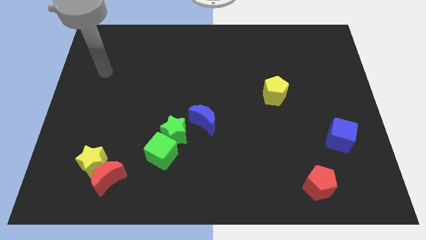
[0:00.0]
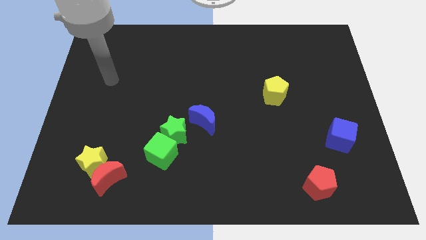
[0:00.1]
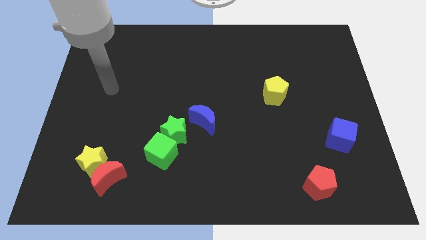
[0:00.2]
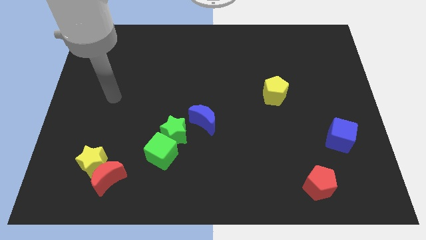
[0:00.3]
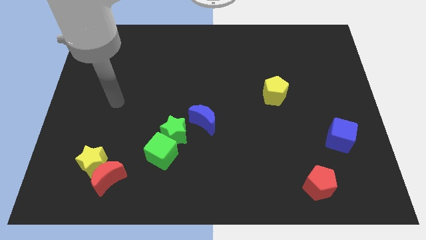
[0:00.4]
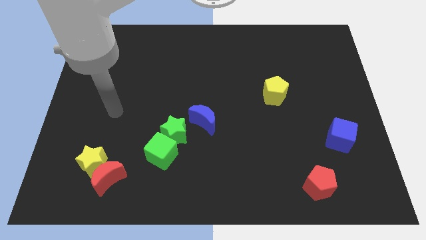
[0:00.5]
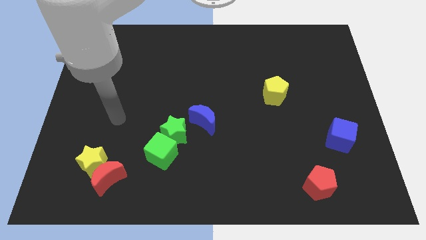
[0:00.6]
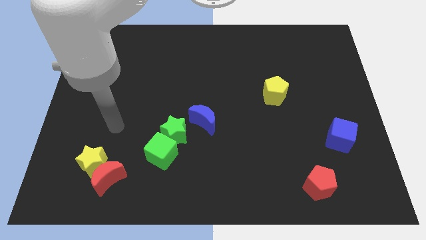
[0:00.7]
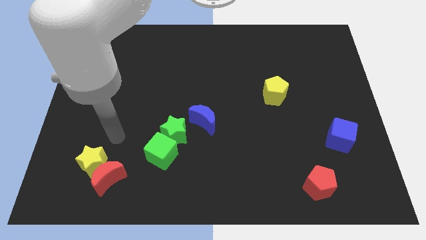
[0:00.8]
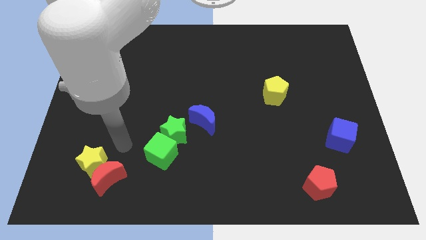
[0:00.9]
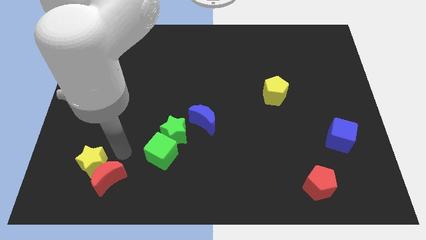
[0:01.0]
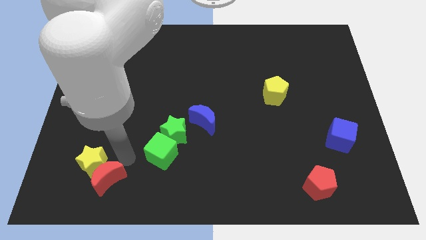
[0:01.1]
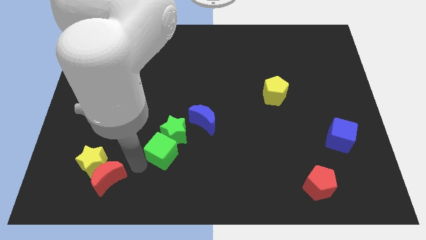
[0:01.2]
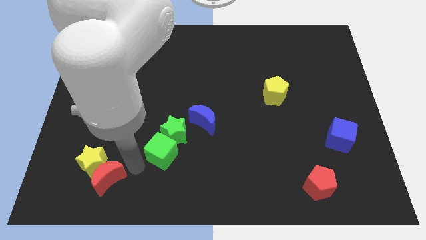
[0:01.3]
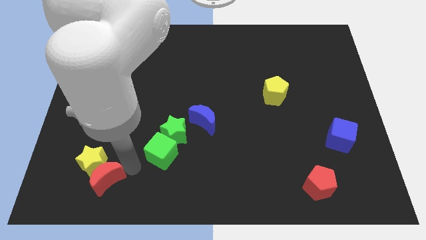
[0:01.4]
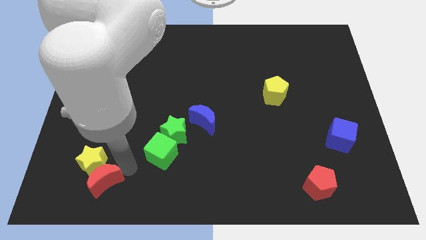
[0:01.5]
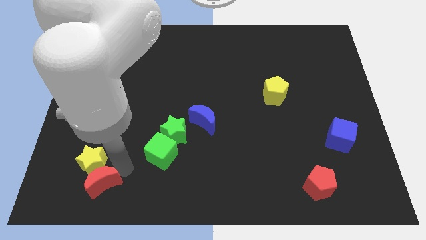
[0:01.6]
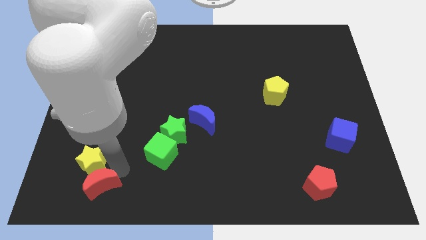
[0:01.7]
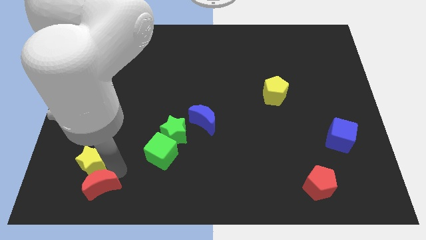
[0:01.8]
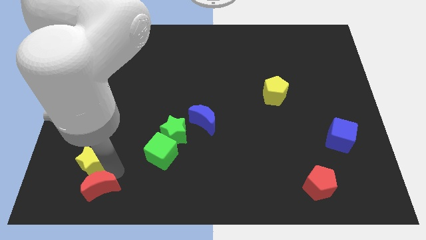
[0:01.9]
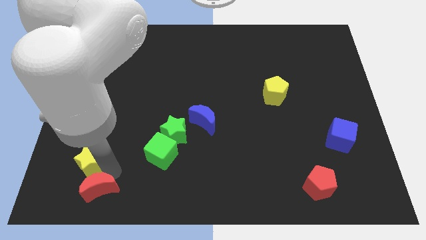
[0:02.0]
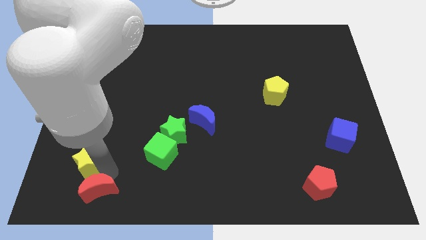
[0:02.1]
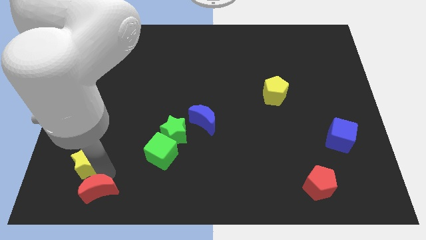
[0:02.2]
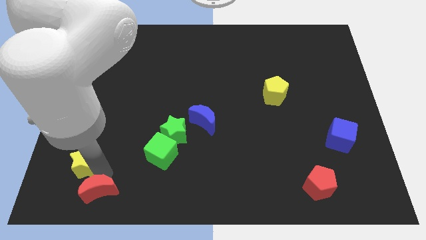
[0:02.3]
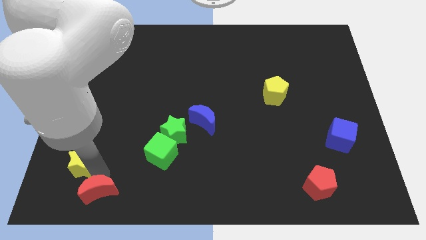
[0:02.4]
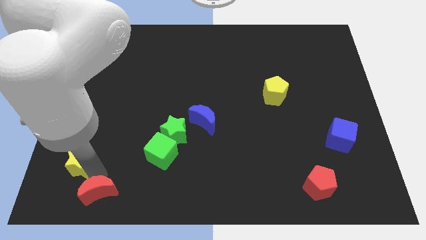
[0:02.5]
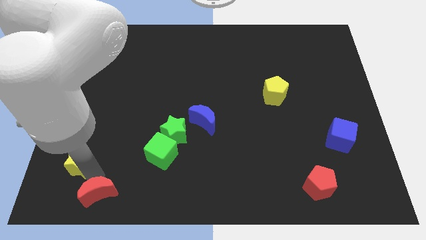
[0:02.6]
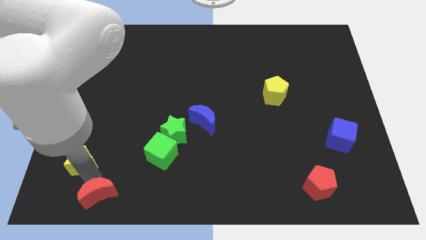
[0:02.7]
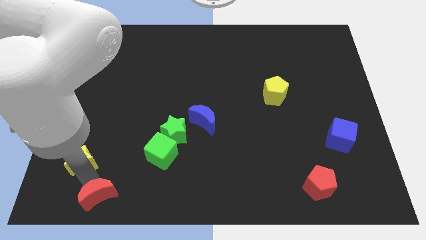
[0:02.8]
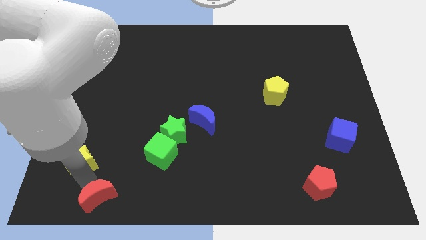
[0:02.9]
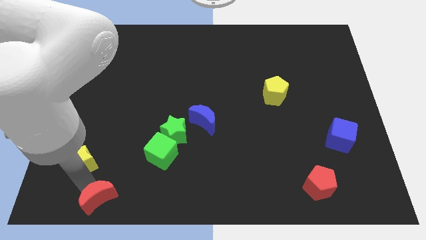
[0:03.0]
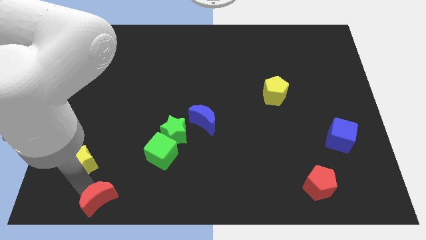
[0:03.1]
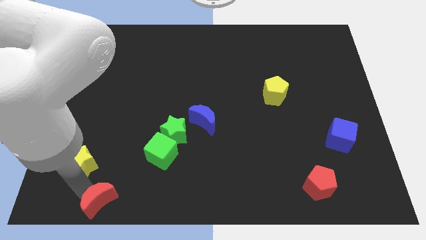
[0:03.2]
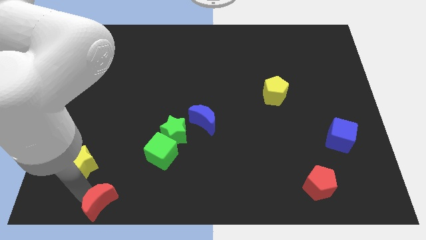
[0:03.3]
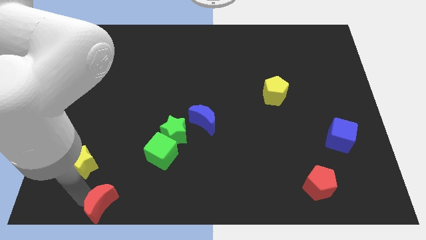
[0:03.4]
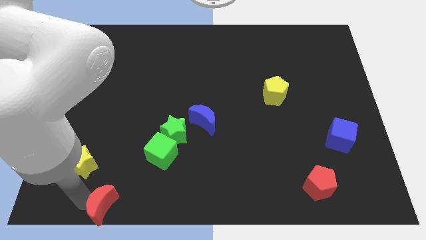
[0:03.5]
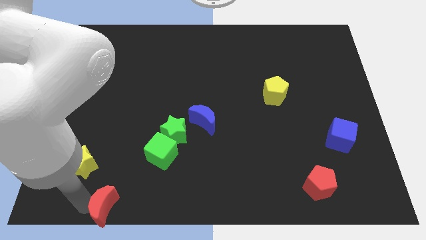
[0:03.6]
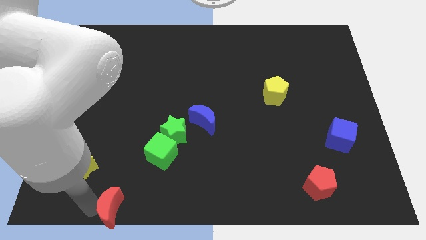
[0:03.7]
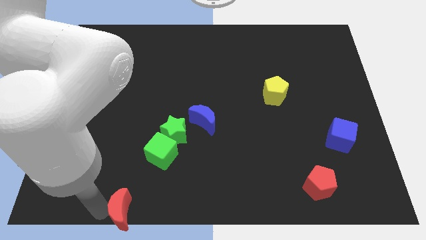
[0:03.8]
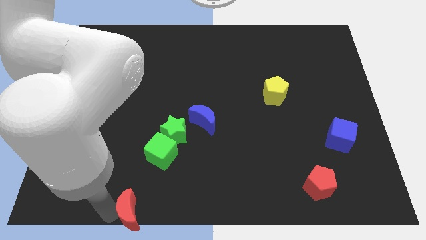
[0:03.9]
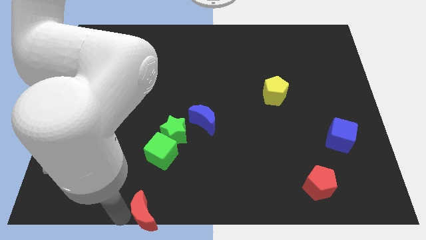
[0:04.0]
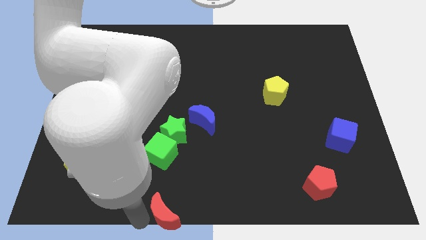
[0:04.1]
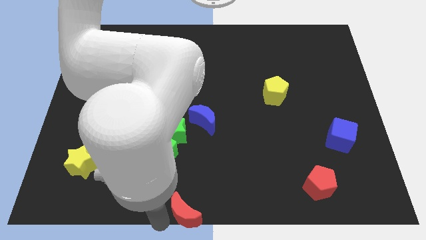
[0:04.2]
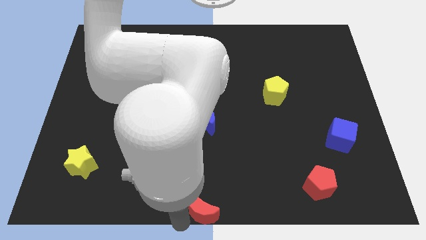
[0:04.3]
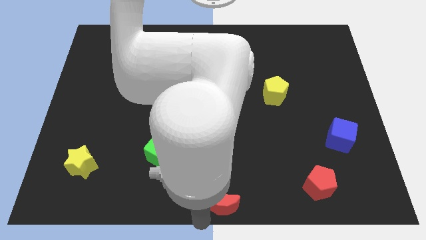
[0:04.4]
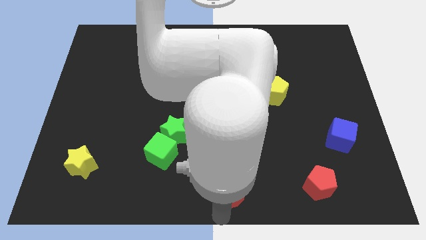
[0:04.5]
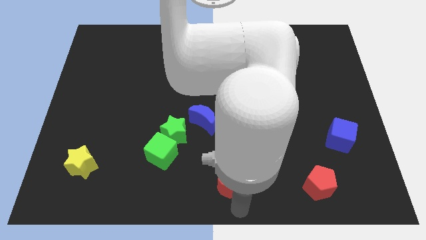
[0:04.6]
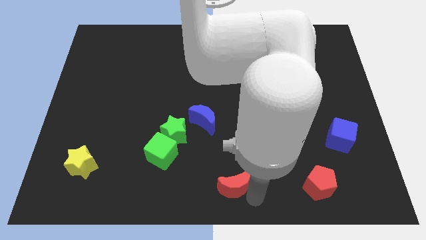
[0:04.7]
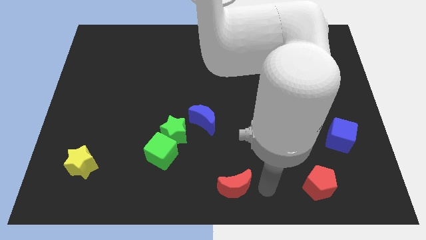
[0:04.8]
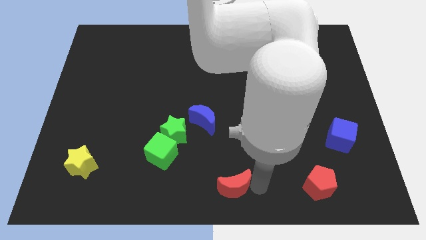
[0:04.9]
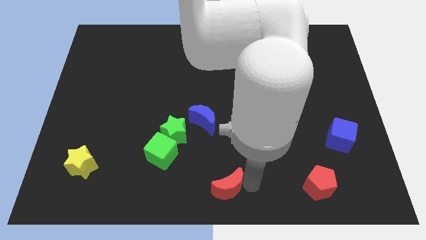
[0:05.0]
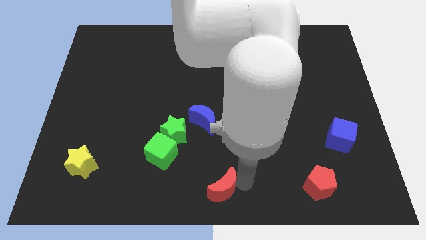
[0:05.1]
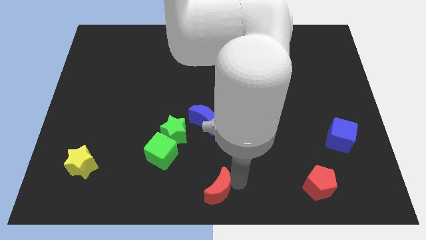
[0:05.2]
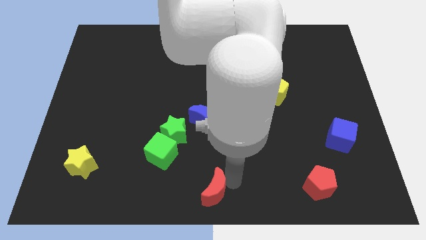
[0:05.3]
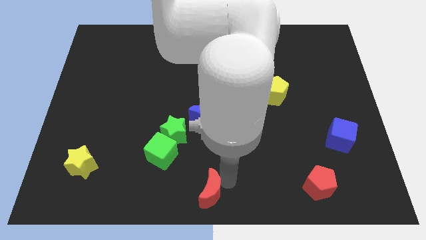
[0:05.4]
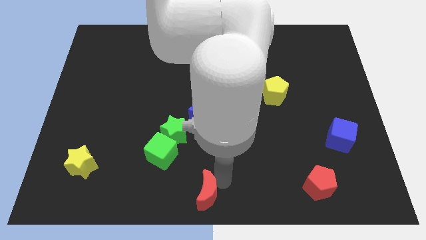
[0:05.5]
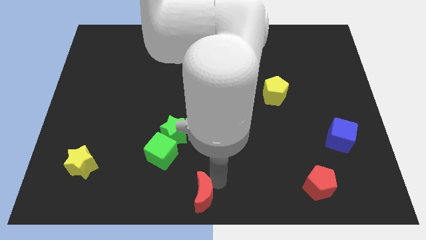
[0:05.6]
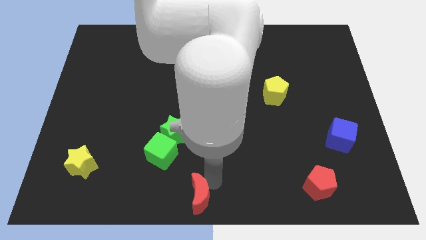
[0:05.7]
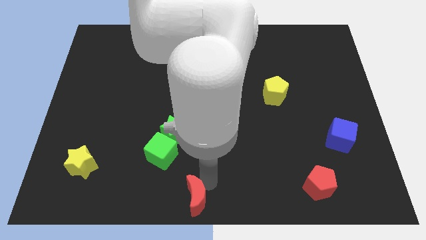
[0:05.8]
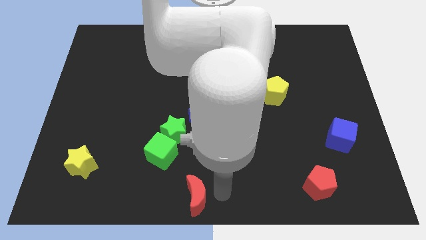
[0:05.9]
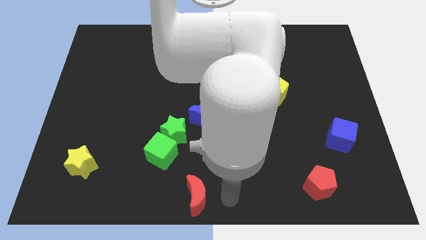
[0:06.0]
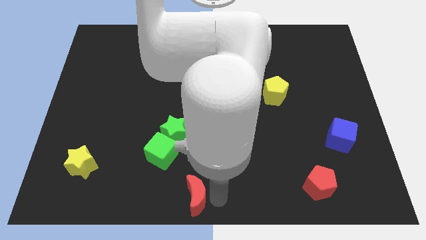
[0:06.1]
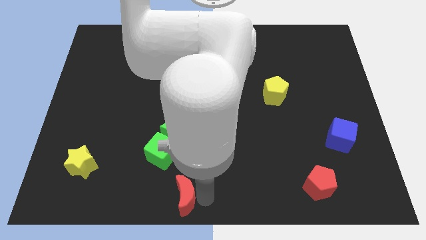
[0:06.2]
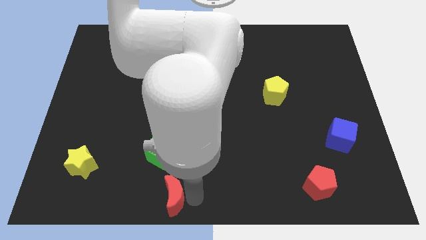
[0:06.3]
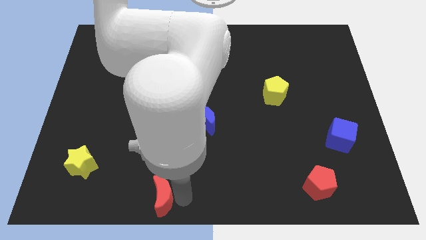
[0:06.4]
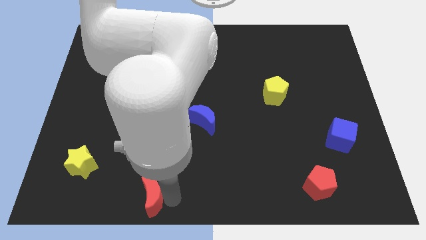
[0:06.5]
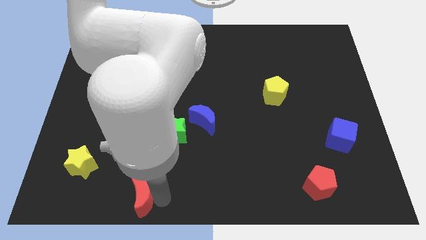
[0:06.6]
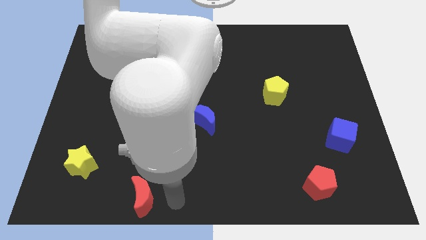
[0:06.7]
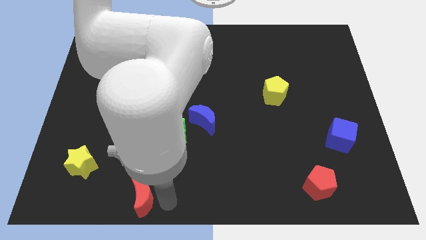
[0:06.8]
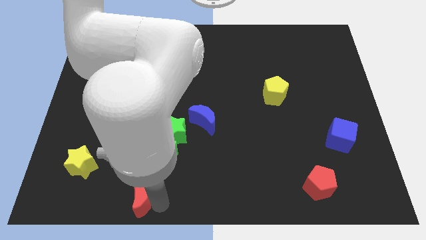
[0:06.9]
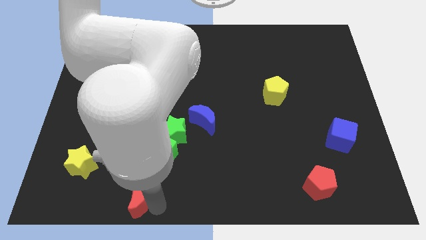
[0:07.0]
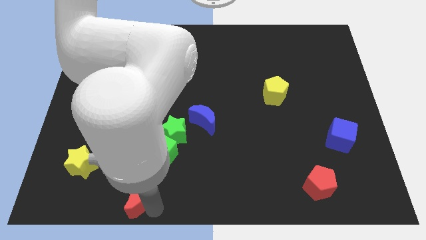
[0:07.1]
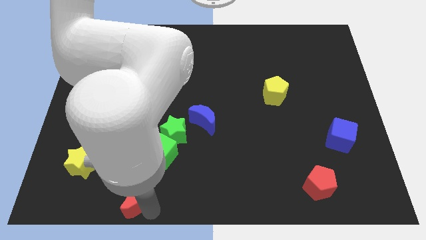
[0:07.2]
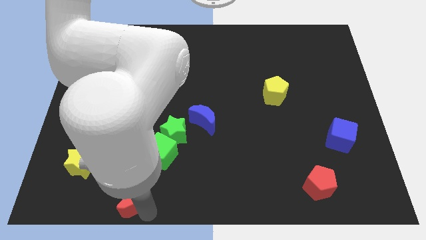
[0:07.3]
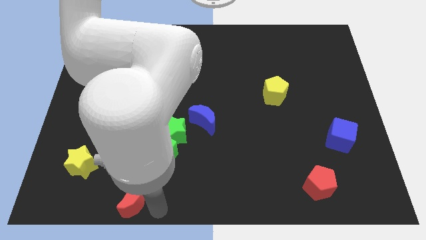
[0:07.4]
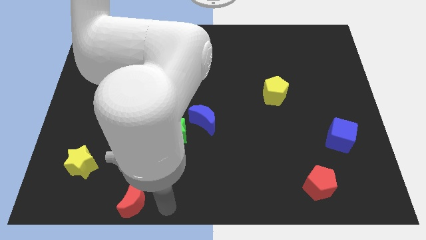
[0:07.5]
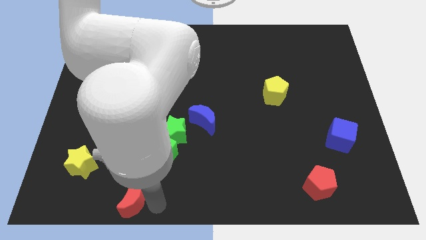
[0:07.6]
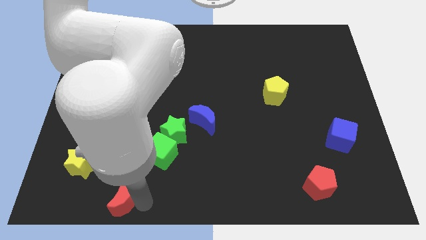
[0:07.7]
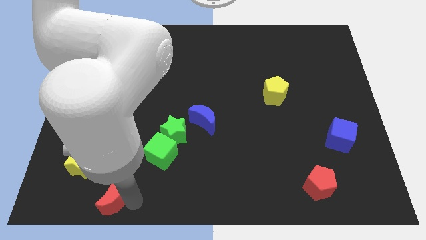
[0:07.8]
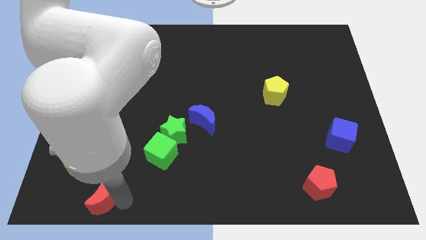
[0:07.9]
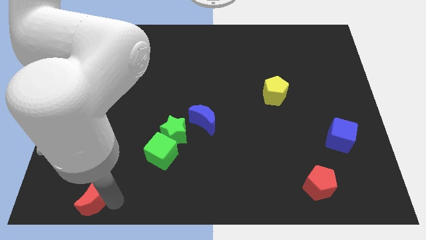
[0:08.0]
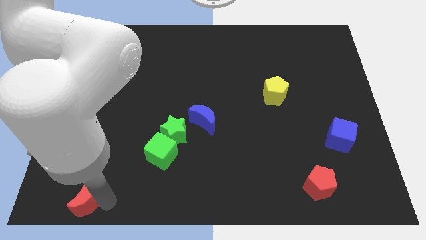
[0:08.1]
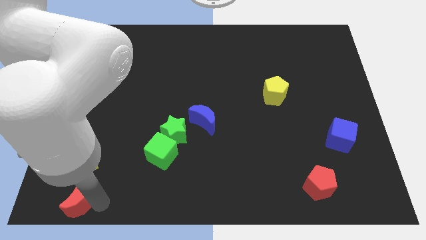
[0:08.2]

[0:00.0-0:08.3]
move the red moon to the bottom left corner
